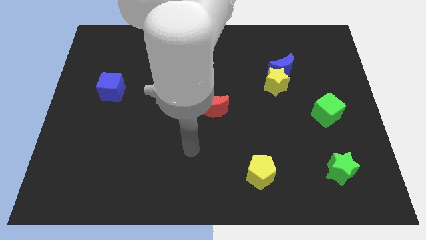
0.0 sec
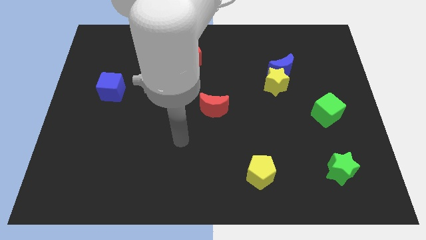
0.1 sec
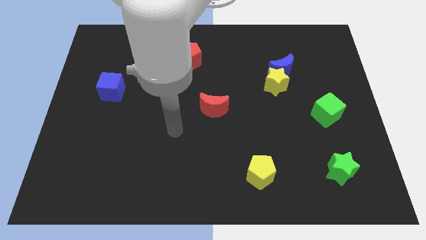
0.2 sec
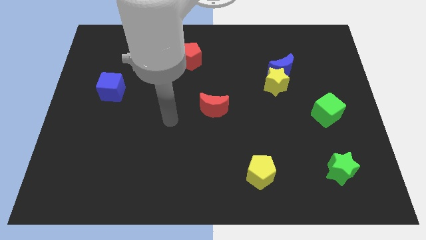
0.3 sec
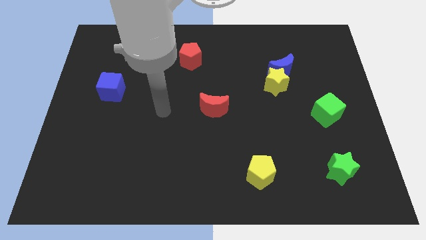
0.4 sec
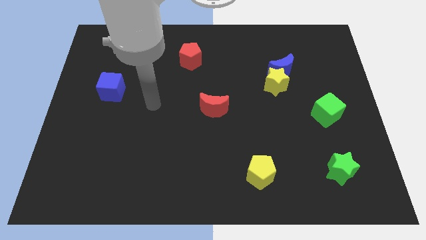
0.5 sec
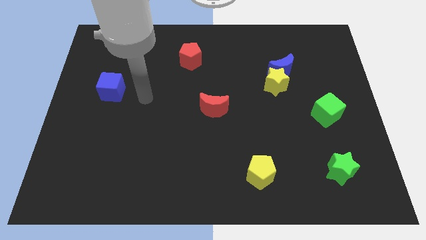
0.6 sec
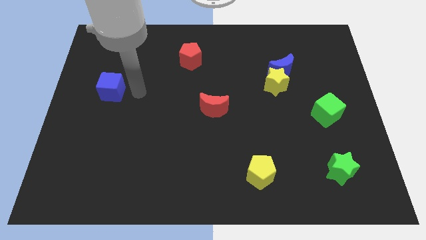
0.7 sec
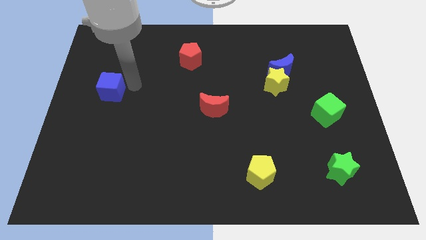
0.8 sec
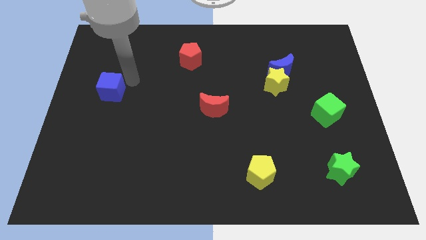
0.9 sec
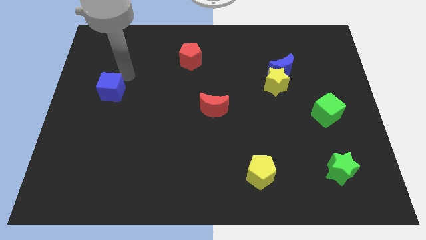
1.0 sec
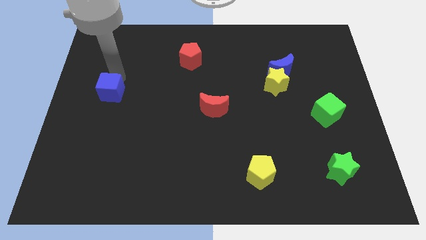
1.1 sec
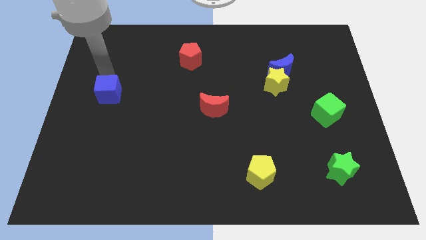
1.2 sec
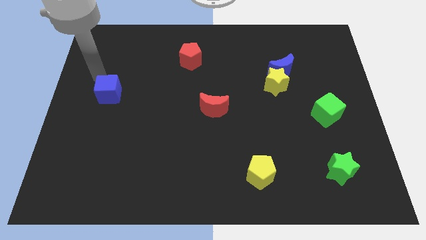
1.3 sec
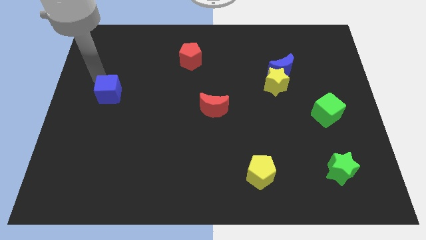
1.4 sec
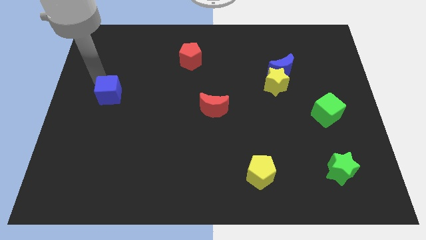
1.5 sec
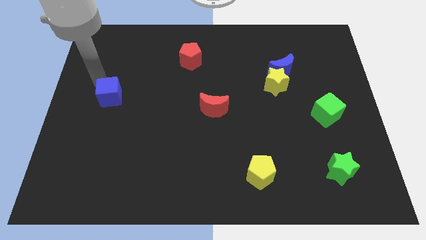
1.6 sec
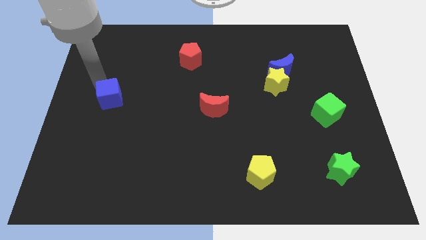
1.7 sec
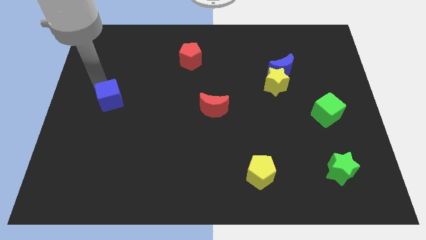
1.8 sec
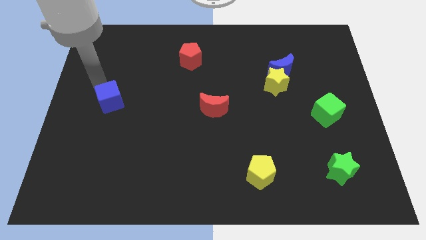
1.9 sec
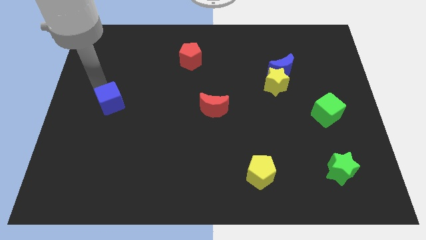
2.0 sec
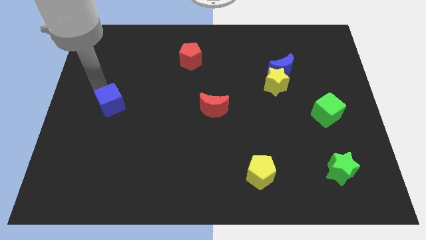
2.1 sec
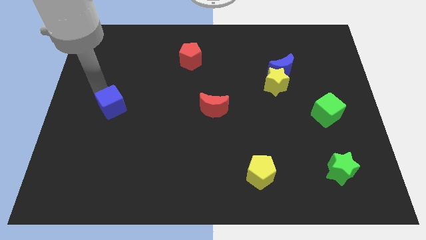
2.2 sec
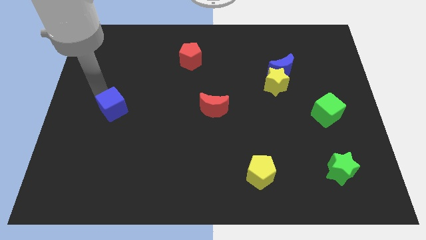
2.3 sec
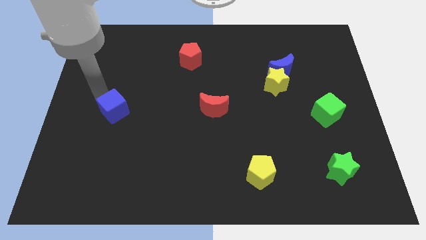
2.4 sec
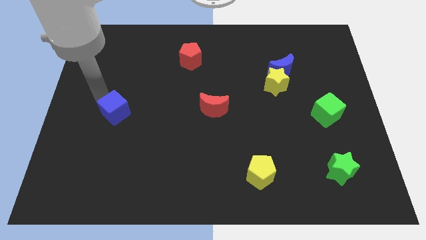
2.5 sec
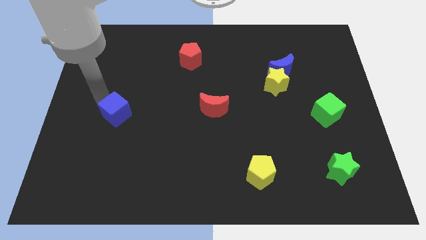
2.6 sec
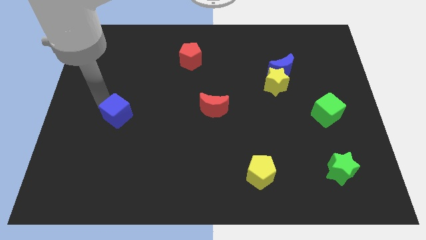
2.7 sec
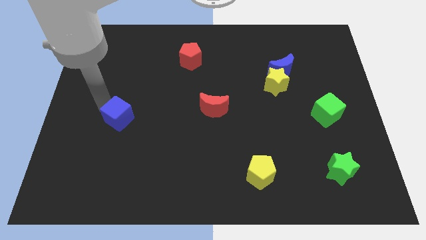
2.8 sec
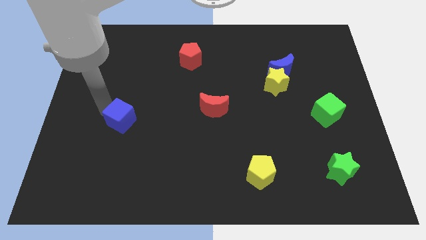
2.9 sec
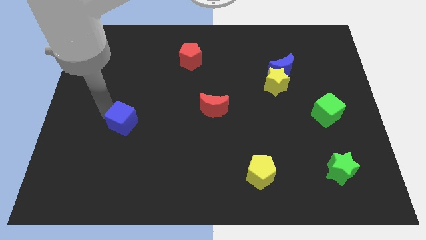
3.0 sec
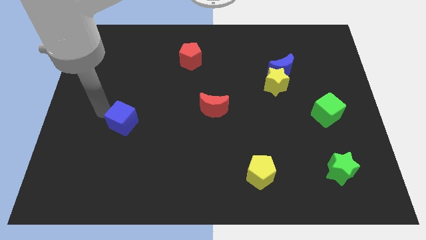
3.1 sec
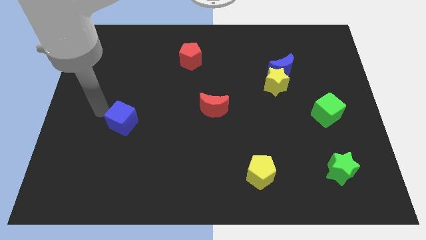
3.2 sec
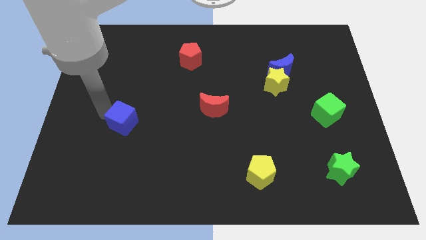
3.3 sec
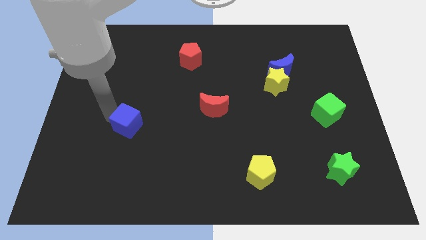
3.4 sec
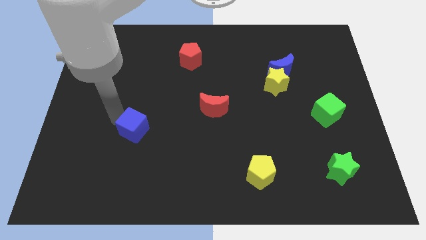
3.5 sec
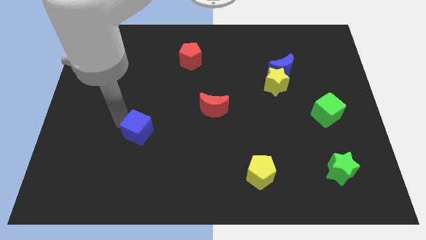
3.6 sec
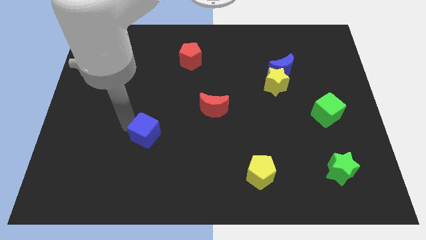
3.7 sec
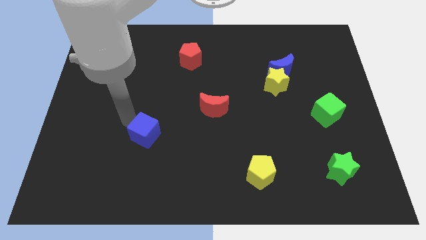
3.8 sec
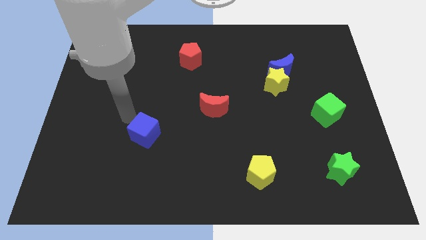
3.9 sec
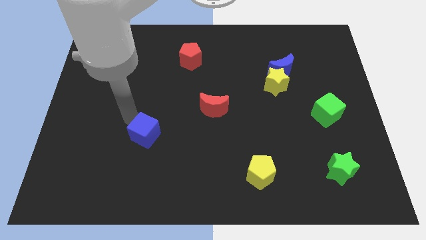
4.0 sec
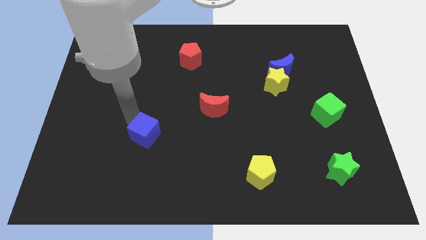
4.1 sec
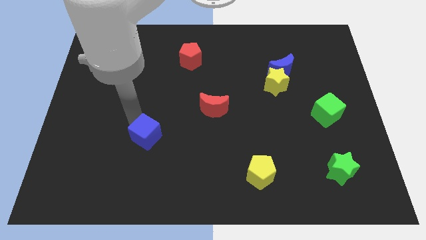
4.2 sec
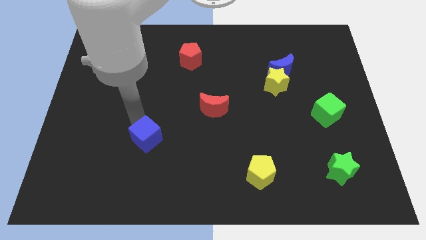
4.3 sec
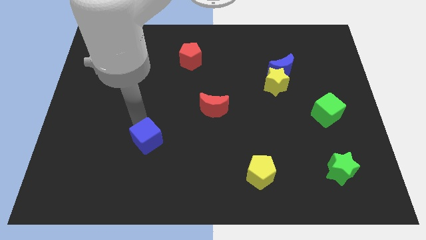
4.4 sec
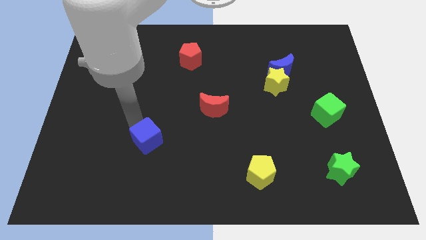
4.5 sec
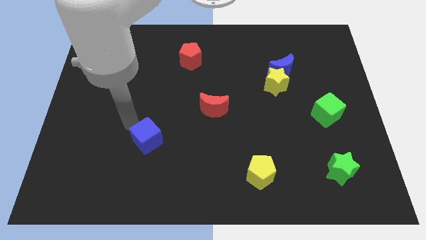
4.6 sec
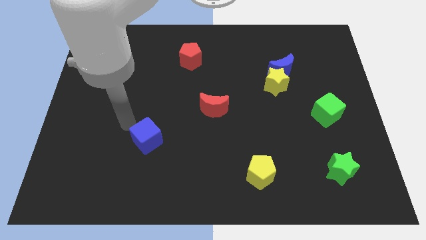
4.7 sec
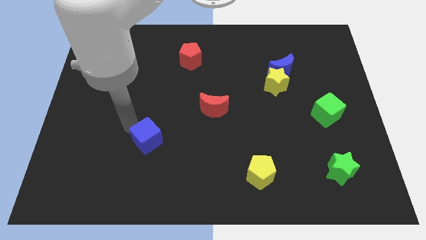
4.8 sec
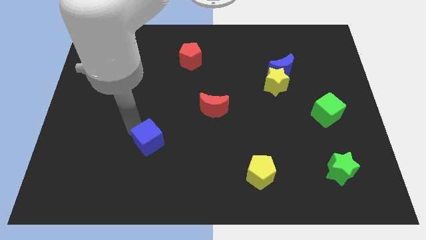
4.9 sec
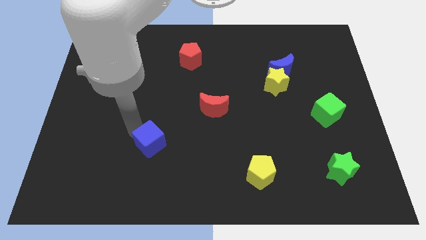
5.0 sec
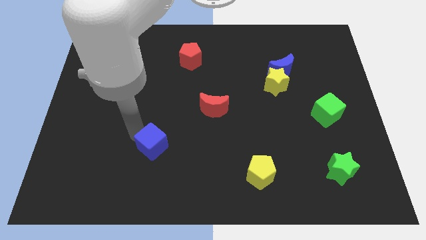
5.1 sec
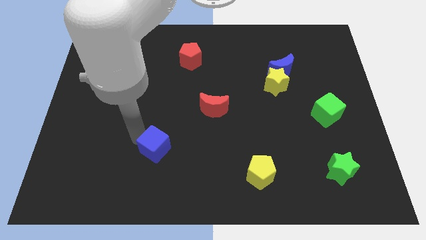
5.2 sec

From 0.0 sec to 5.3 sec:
slide the blue cube downwards and right diagonally

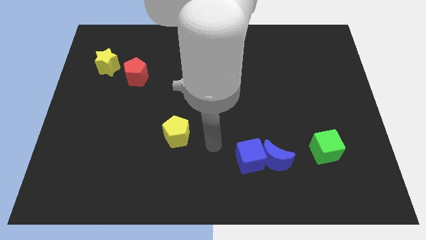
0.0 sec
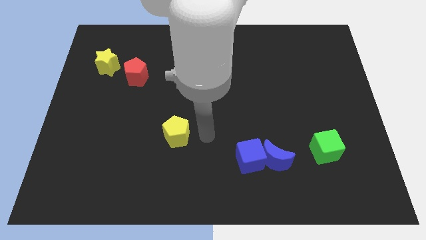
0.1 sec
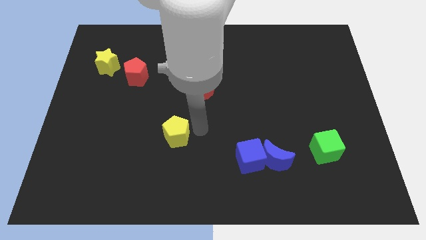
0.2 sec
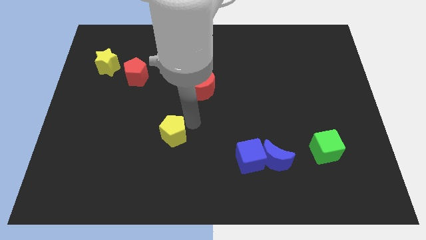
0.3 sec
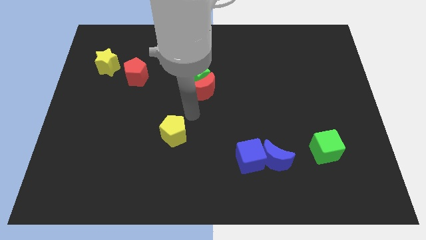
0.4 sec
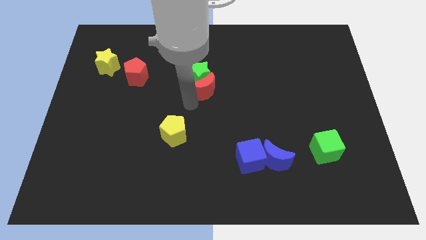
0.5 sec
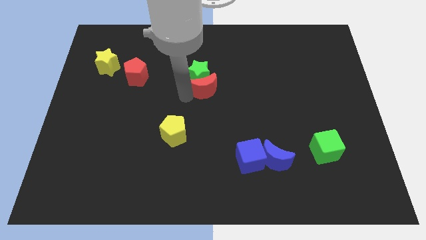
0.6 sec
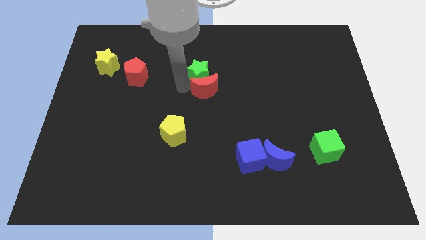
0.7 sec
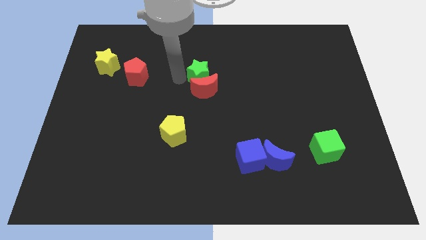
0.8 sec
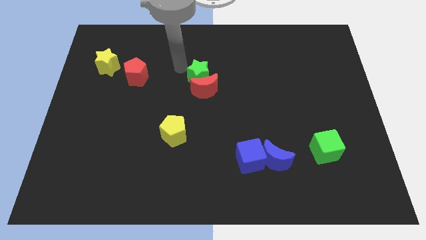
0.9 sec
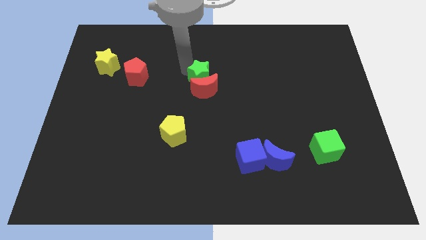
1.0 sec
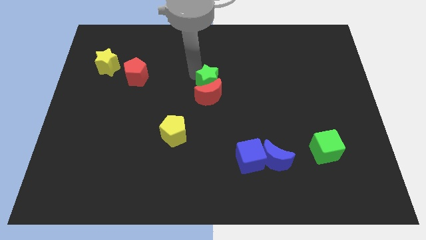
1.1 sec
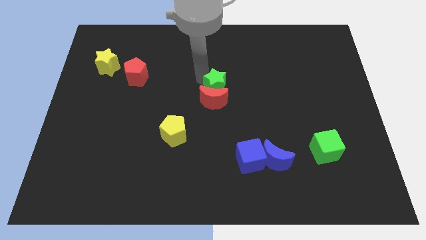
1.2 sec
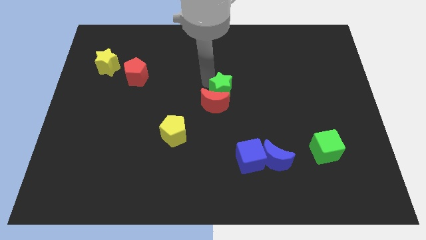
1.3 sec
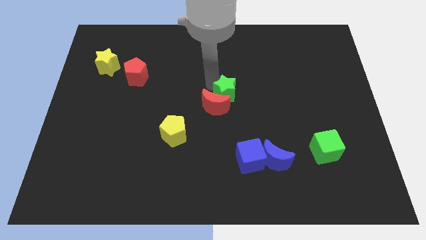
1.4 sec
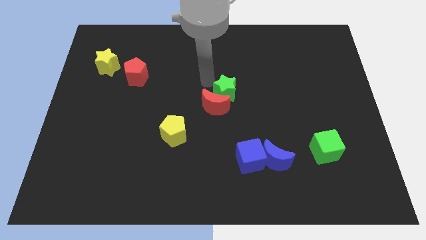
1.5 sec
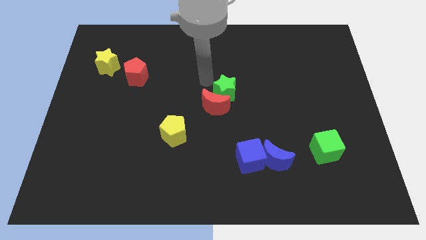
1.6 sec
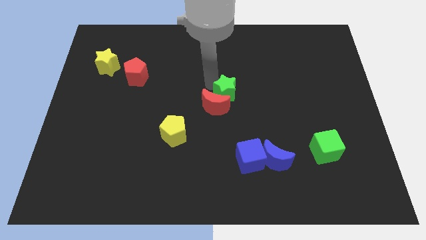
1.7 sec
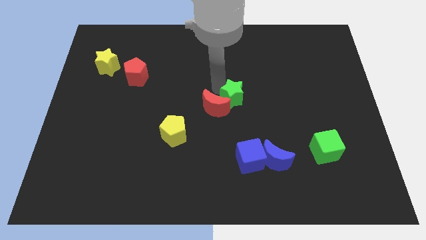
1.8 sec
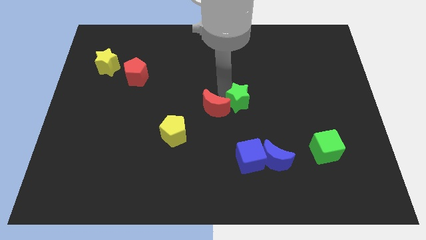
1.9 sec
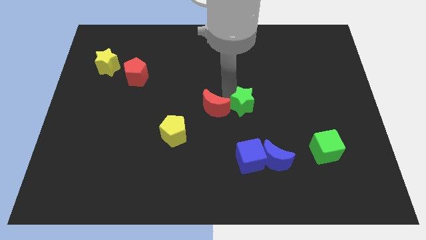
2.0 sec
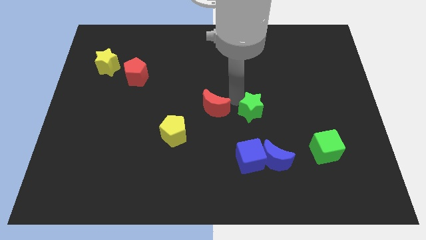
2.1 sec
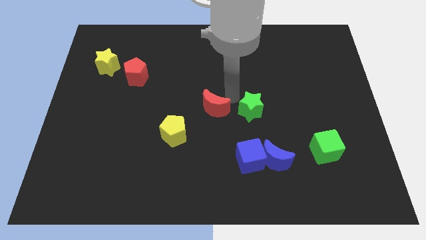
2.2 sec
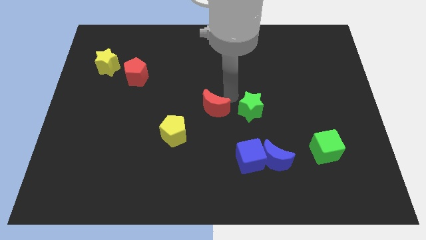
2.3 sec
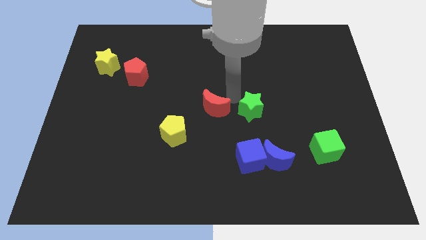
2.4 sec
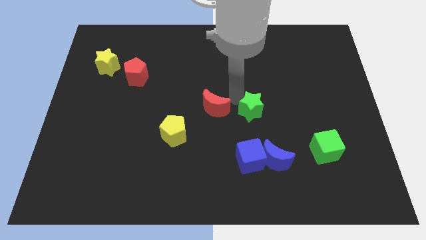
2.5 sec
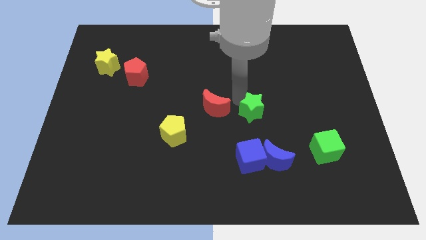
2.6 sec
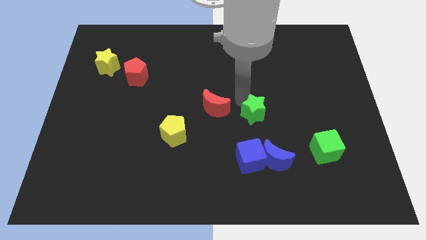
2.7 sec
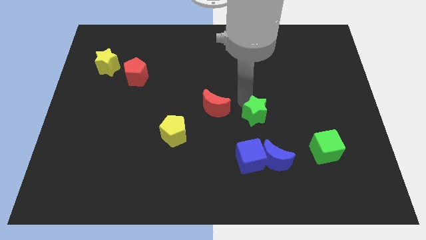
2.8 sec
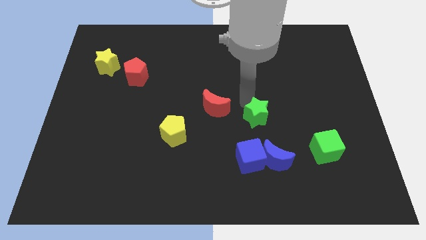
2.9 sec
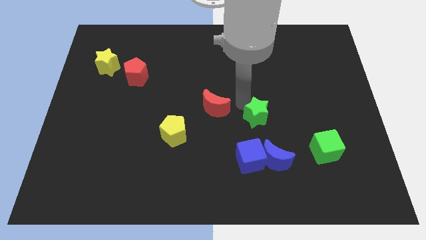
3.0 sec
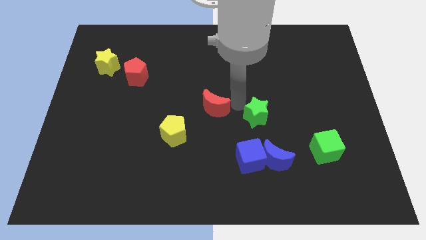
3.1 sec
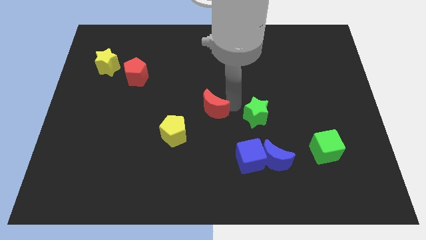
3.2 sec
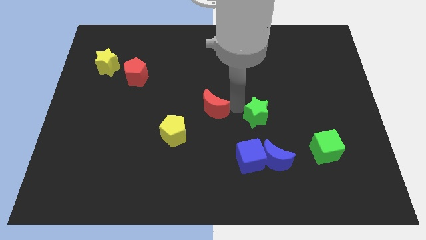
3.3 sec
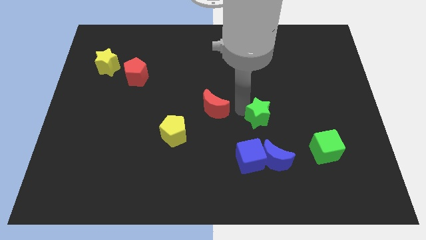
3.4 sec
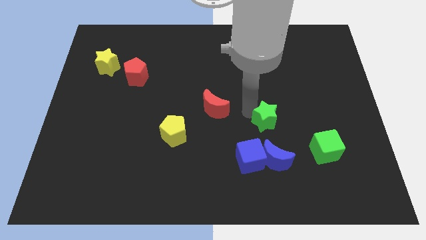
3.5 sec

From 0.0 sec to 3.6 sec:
push the green star downwards and right diagonally
